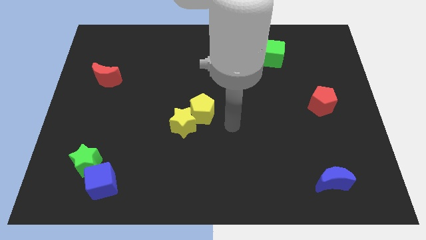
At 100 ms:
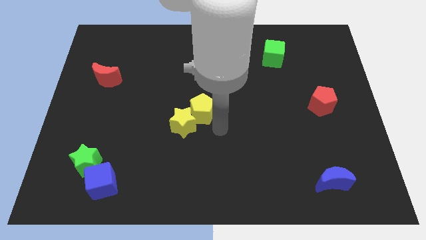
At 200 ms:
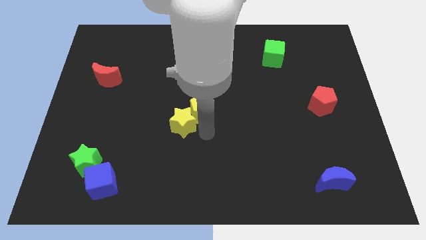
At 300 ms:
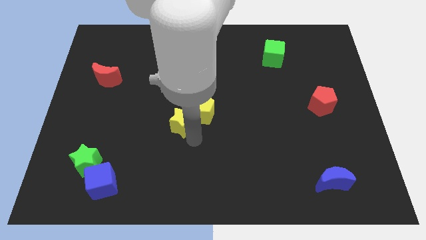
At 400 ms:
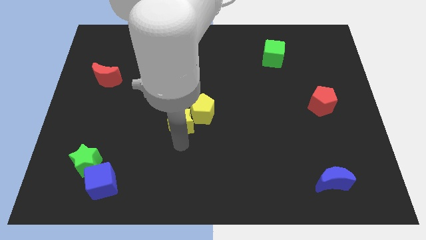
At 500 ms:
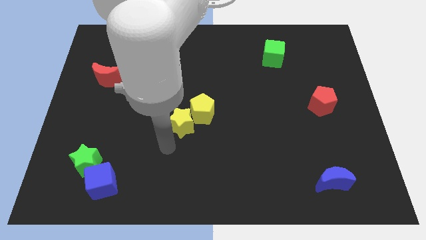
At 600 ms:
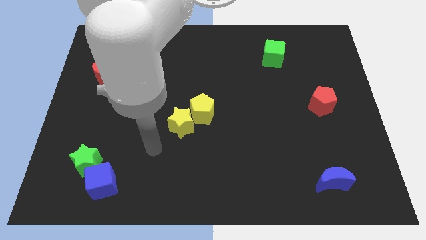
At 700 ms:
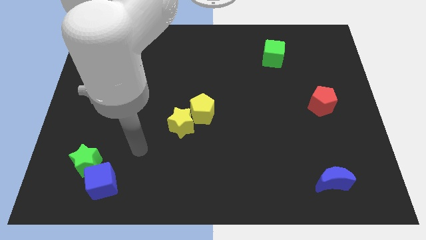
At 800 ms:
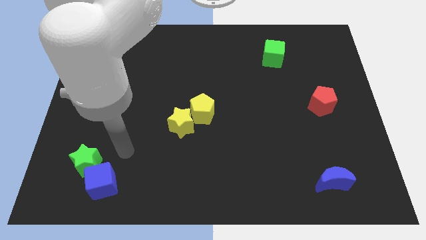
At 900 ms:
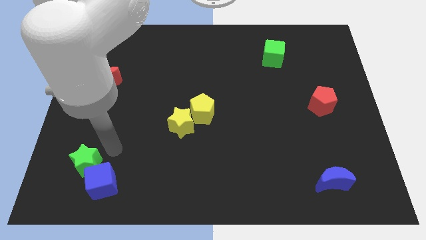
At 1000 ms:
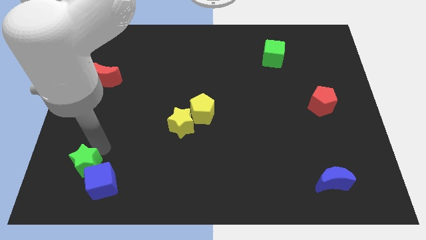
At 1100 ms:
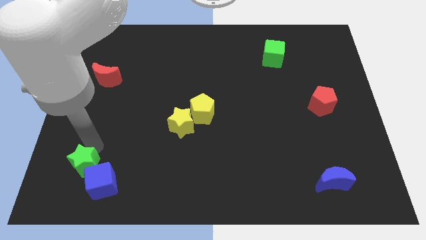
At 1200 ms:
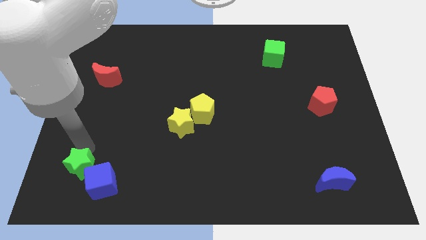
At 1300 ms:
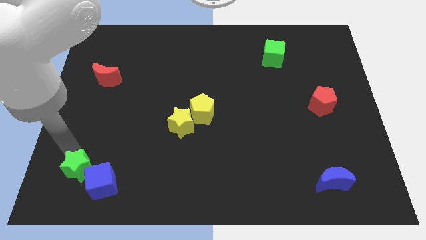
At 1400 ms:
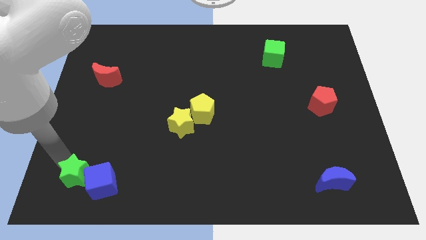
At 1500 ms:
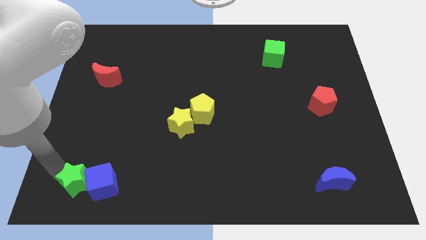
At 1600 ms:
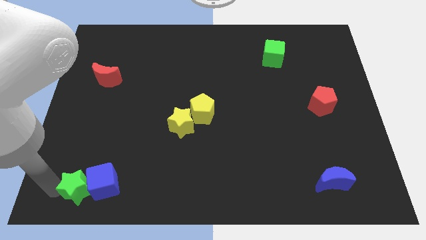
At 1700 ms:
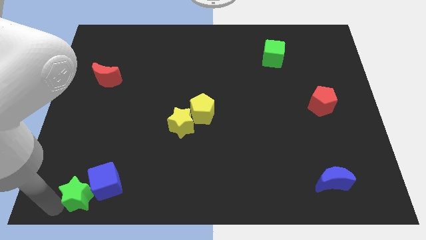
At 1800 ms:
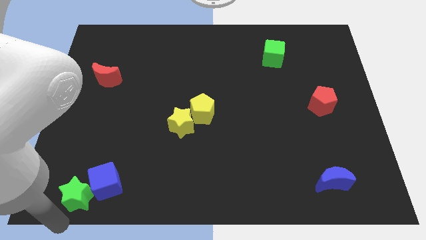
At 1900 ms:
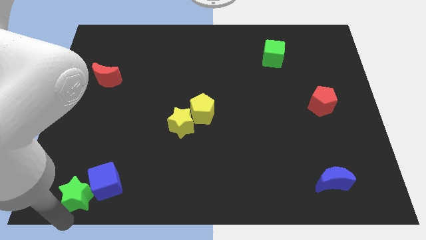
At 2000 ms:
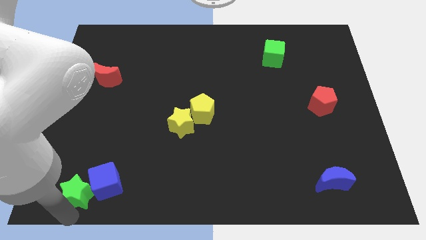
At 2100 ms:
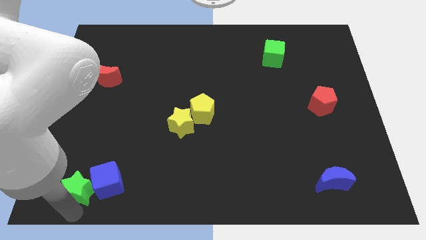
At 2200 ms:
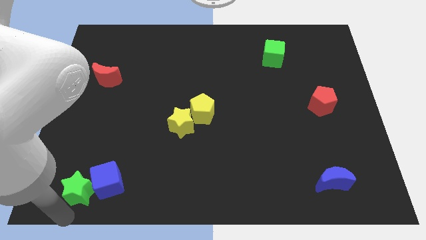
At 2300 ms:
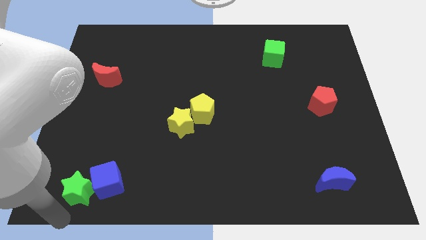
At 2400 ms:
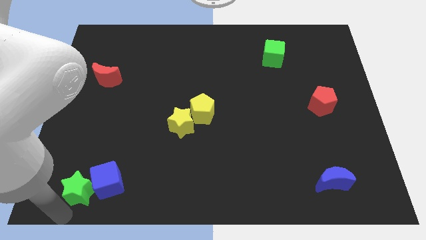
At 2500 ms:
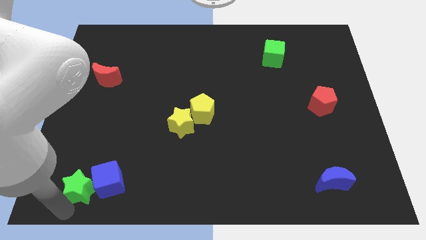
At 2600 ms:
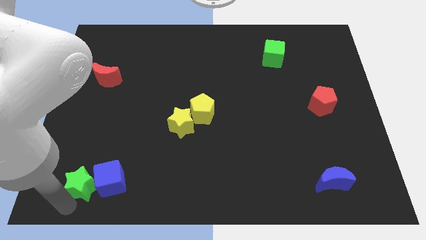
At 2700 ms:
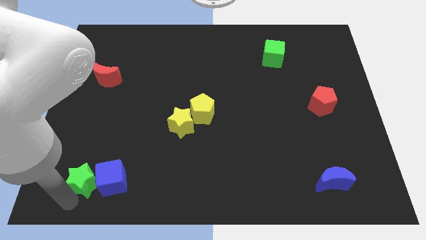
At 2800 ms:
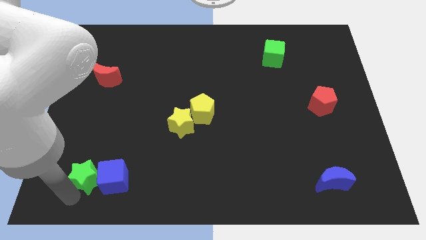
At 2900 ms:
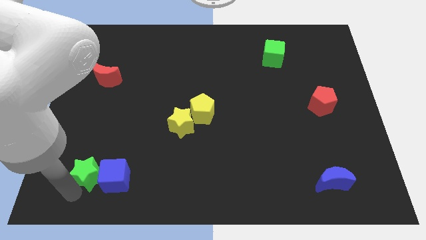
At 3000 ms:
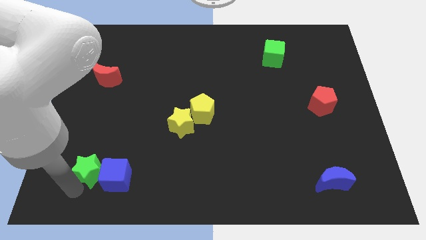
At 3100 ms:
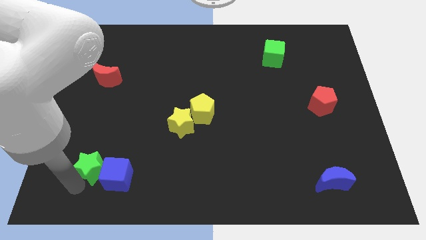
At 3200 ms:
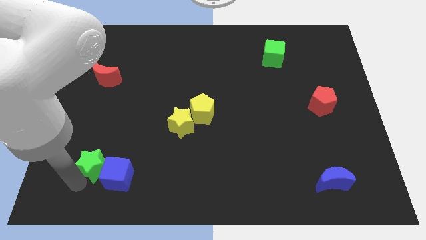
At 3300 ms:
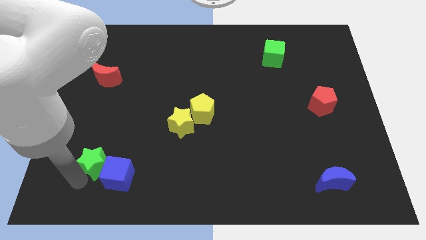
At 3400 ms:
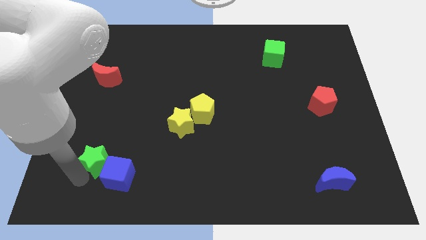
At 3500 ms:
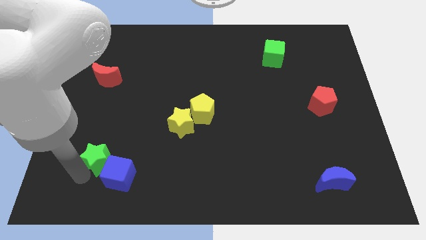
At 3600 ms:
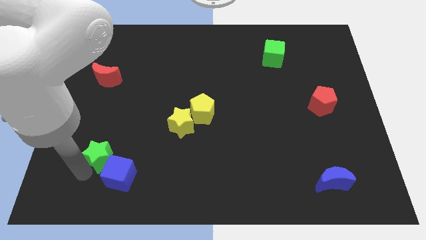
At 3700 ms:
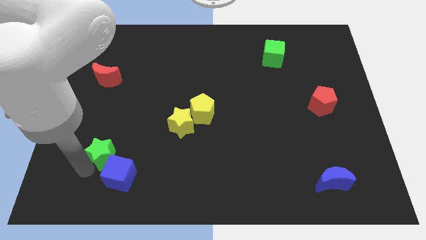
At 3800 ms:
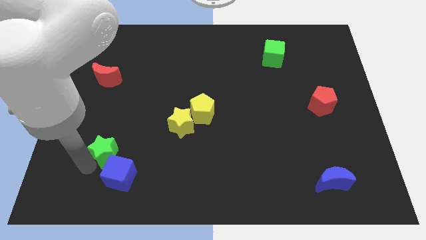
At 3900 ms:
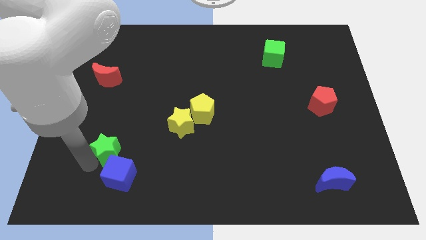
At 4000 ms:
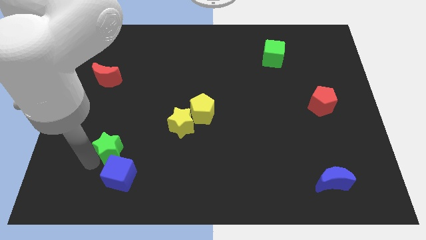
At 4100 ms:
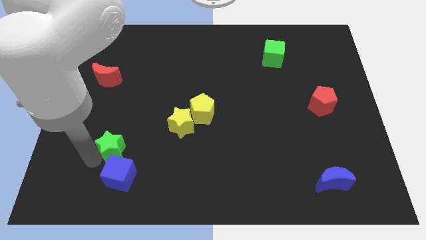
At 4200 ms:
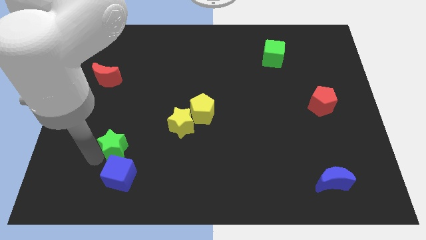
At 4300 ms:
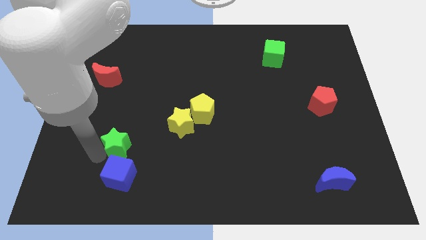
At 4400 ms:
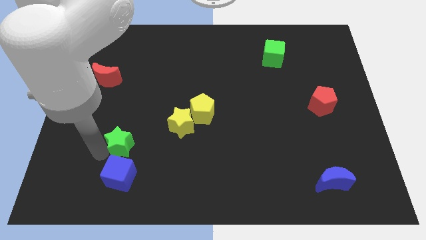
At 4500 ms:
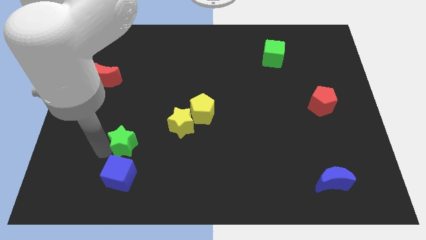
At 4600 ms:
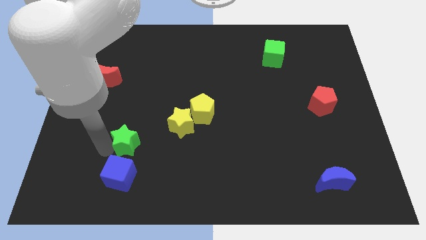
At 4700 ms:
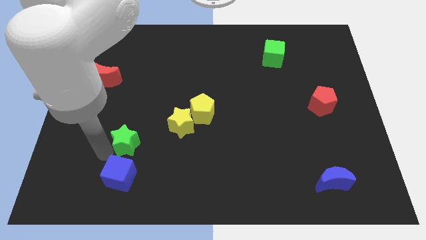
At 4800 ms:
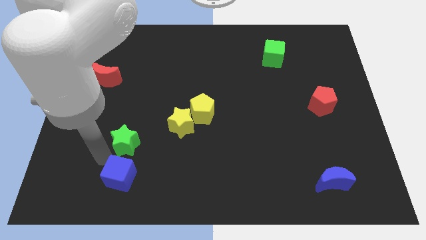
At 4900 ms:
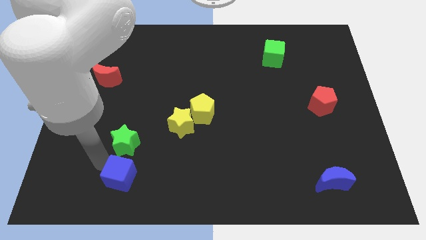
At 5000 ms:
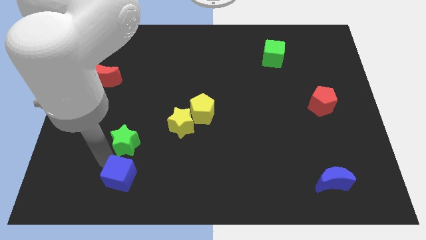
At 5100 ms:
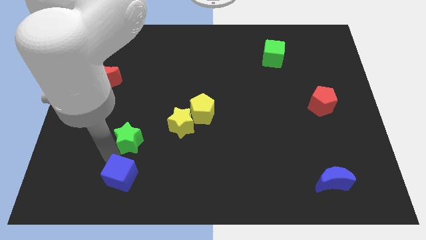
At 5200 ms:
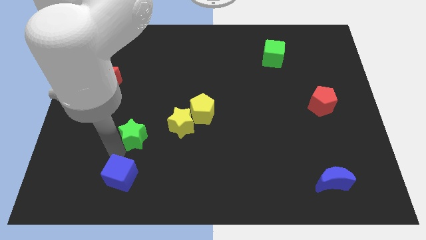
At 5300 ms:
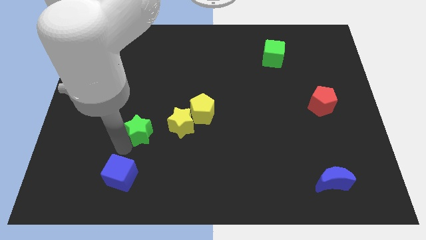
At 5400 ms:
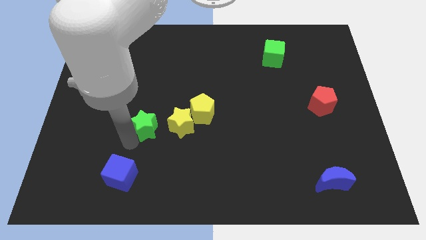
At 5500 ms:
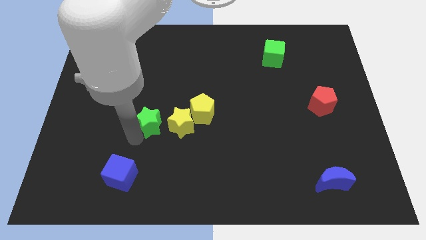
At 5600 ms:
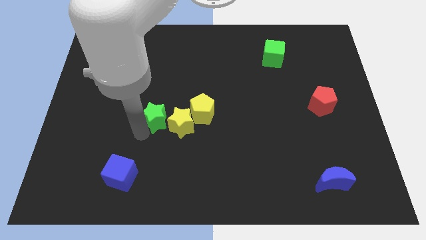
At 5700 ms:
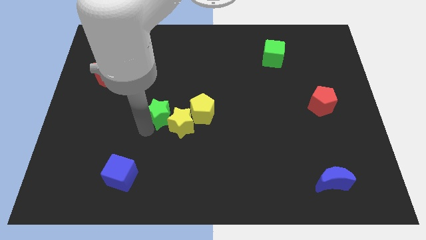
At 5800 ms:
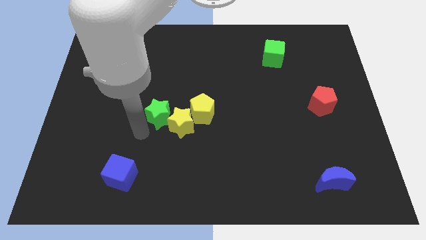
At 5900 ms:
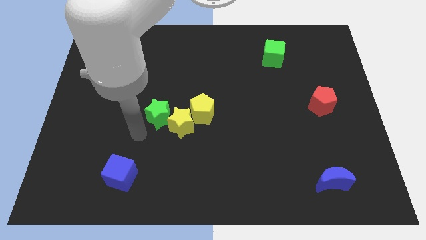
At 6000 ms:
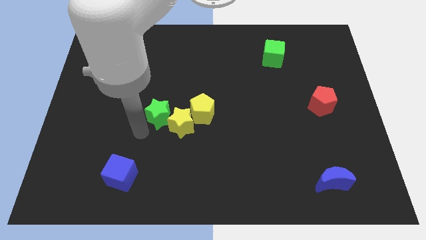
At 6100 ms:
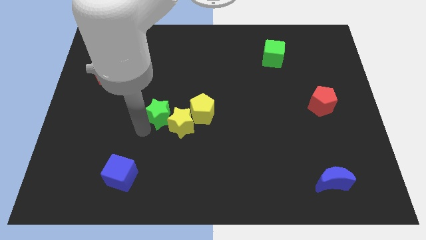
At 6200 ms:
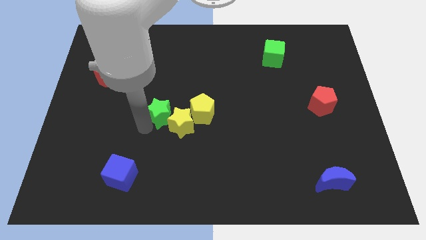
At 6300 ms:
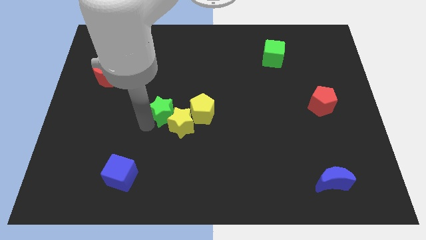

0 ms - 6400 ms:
push the green star up and to the right diagonally

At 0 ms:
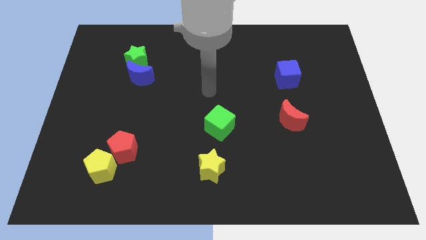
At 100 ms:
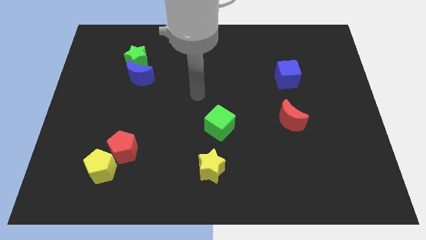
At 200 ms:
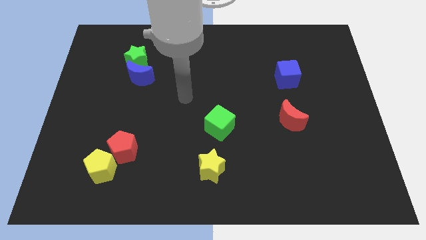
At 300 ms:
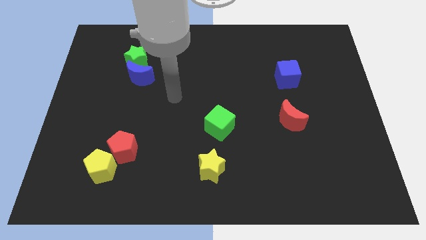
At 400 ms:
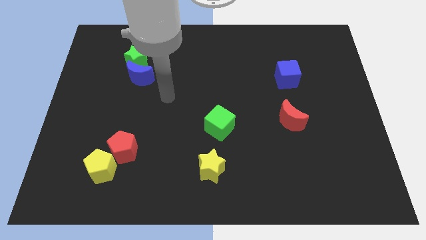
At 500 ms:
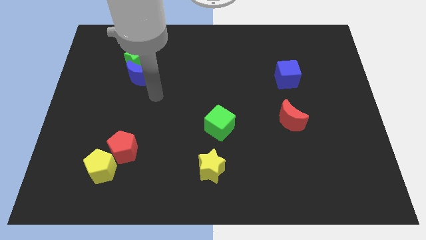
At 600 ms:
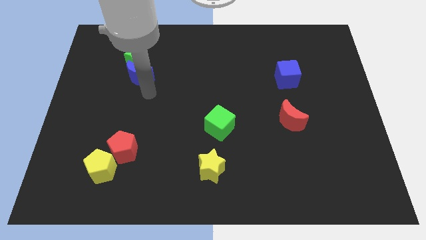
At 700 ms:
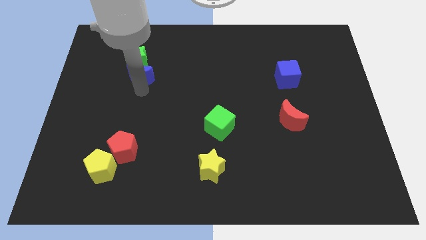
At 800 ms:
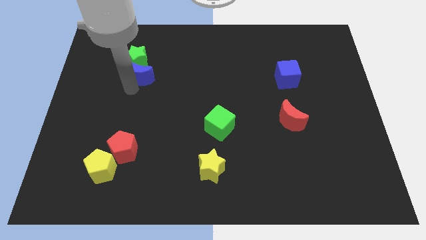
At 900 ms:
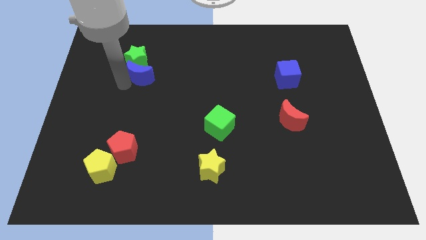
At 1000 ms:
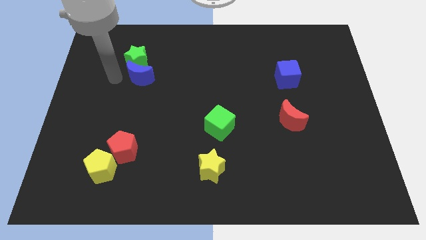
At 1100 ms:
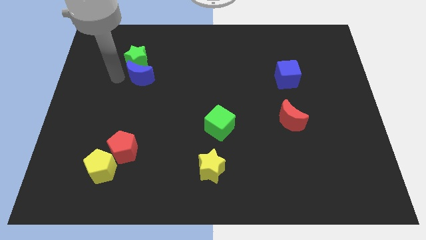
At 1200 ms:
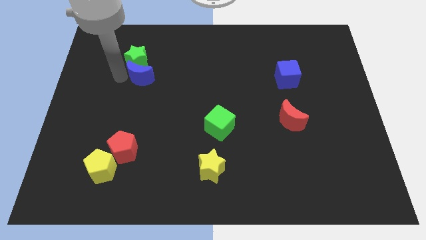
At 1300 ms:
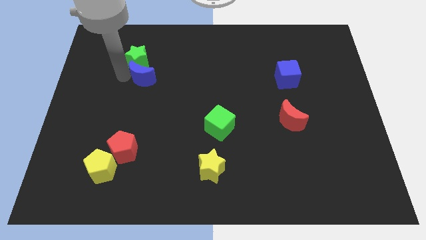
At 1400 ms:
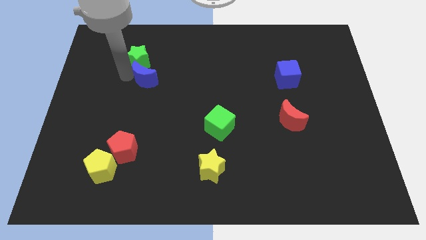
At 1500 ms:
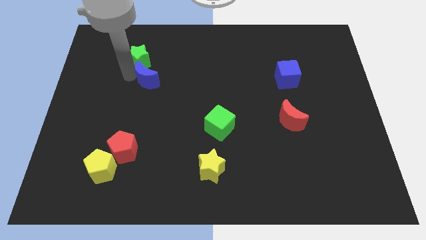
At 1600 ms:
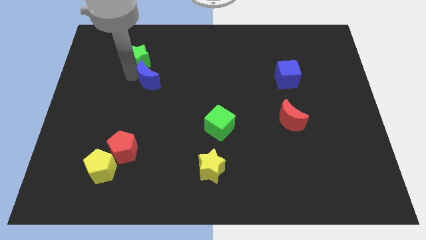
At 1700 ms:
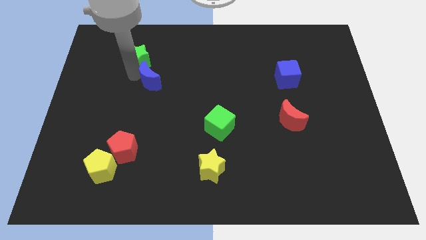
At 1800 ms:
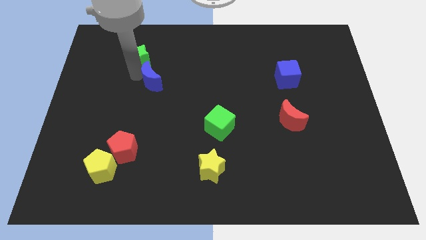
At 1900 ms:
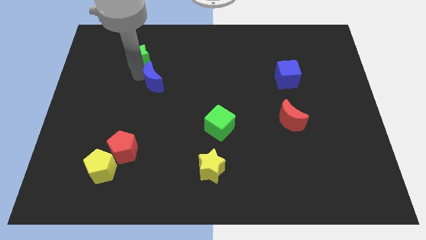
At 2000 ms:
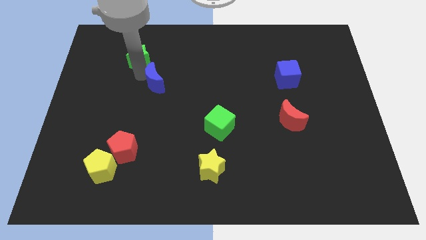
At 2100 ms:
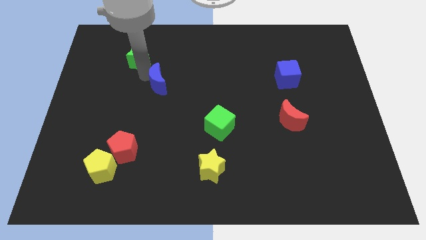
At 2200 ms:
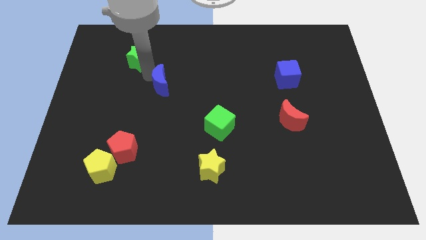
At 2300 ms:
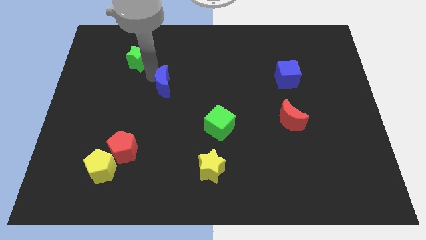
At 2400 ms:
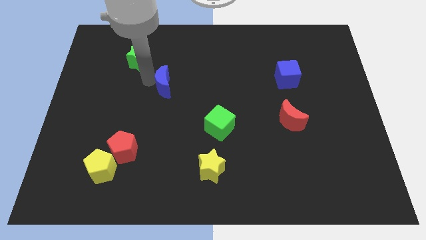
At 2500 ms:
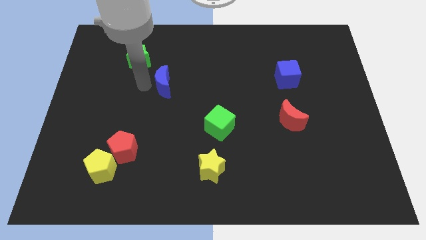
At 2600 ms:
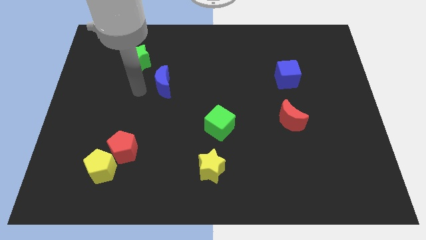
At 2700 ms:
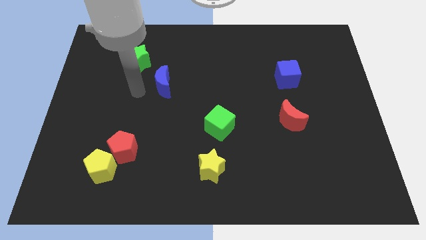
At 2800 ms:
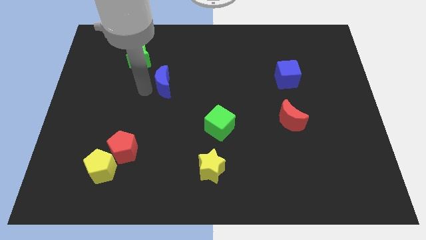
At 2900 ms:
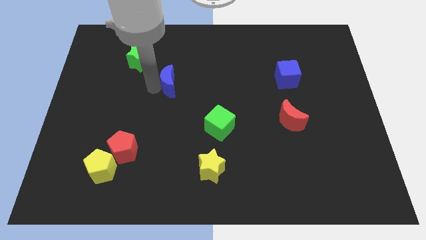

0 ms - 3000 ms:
push the blue moon slightly right
